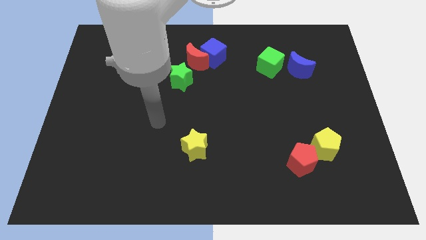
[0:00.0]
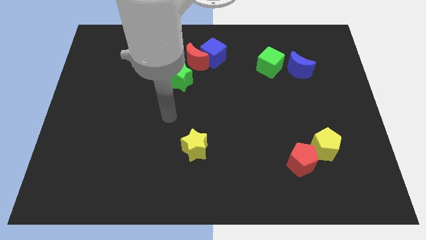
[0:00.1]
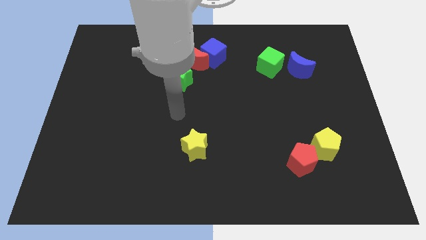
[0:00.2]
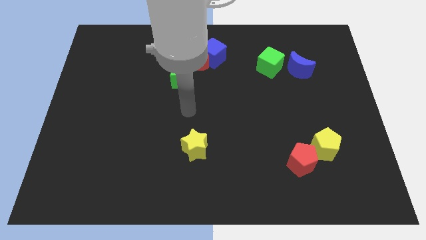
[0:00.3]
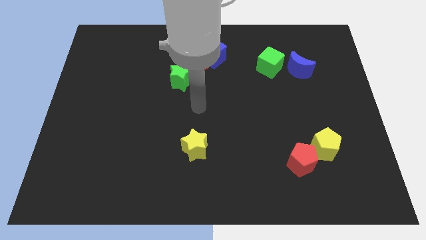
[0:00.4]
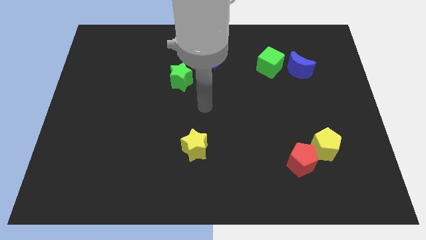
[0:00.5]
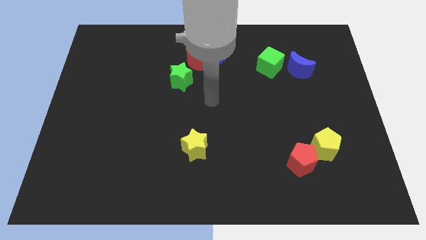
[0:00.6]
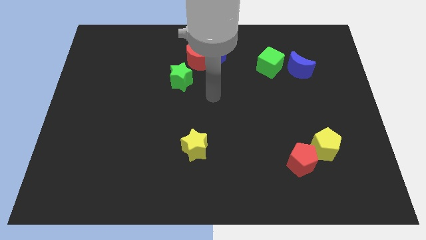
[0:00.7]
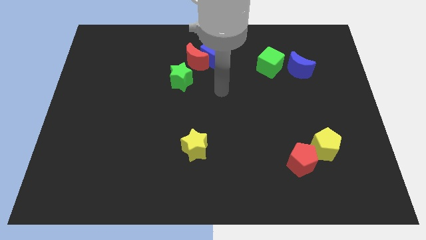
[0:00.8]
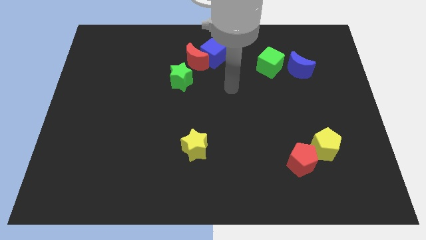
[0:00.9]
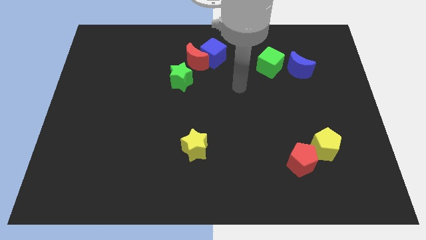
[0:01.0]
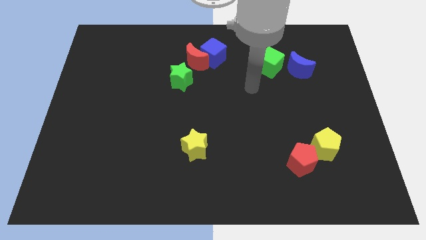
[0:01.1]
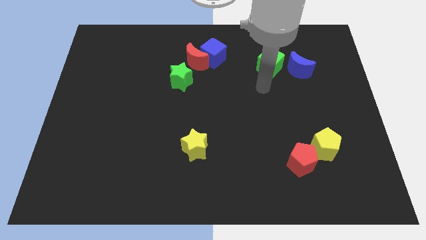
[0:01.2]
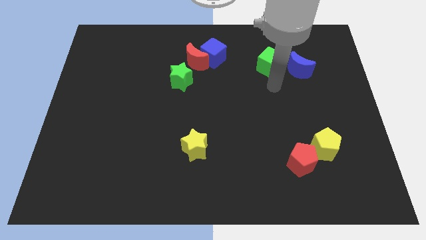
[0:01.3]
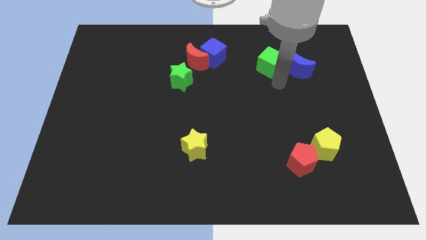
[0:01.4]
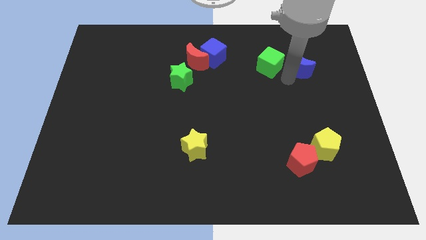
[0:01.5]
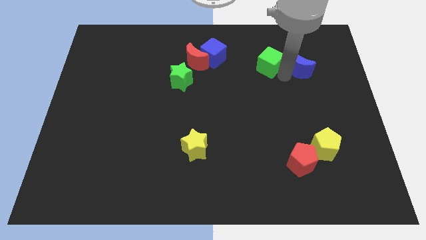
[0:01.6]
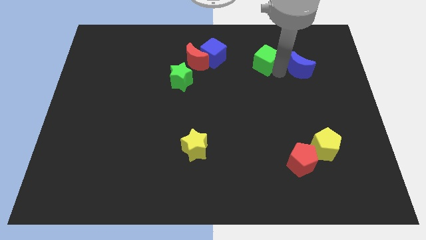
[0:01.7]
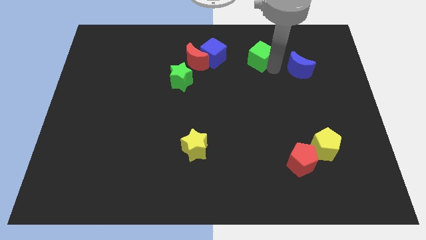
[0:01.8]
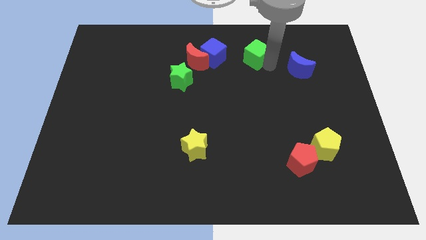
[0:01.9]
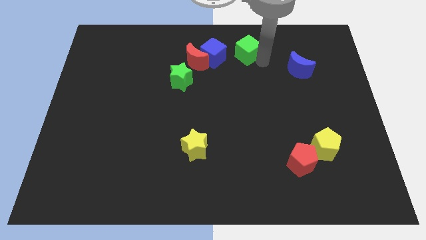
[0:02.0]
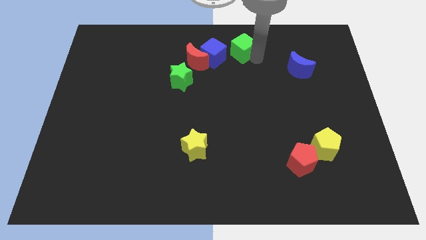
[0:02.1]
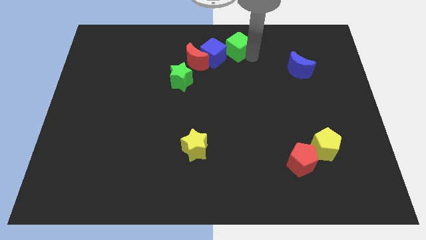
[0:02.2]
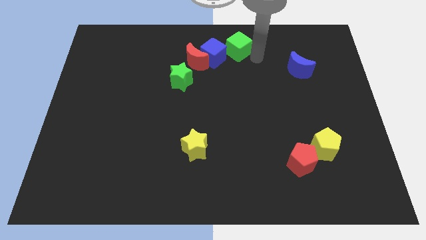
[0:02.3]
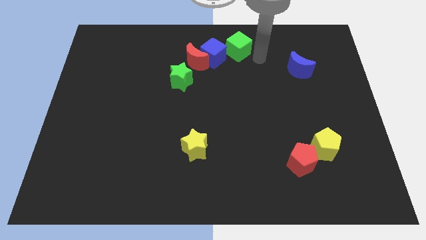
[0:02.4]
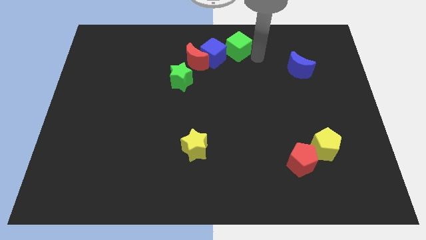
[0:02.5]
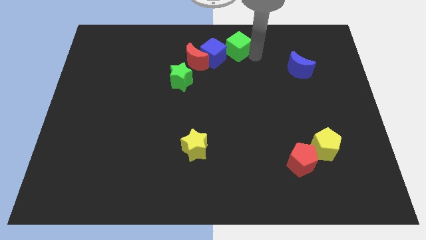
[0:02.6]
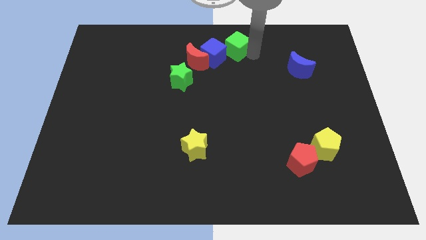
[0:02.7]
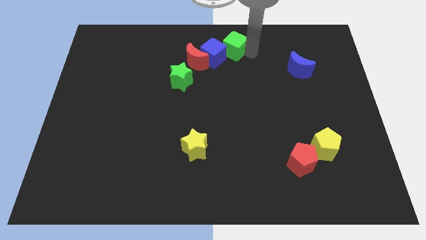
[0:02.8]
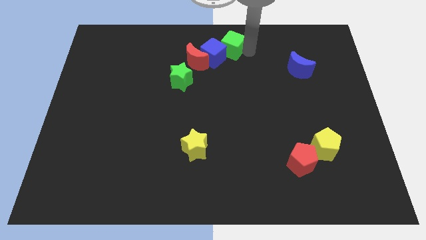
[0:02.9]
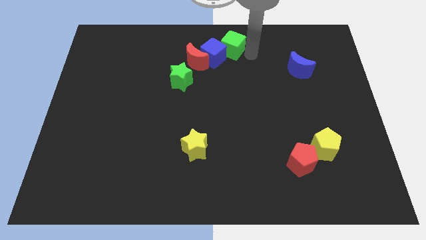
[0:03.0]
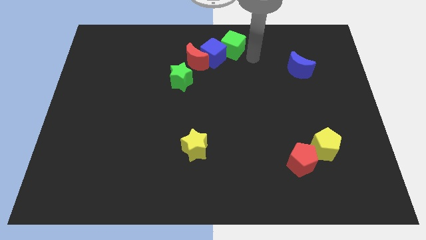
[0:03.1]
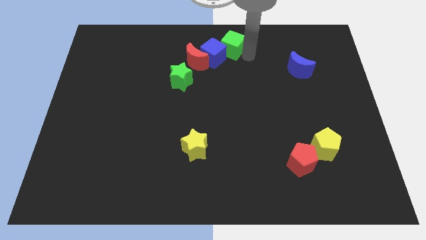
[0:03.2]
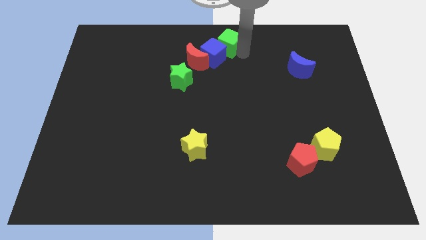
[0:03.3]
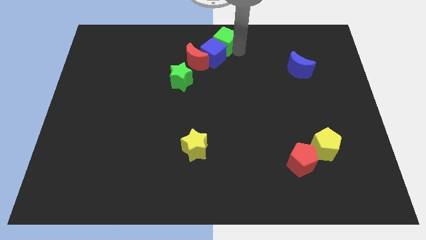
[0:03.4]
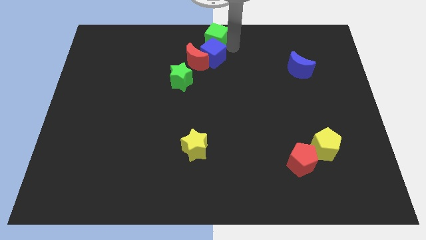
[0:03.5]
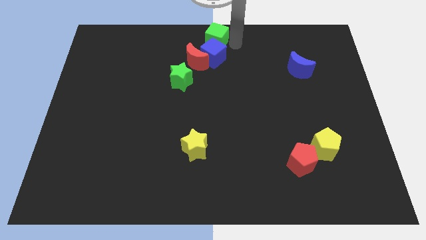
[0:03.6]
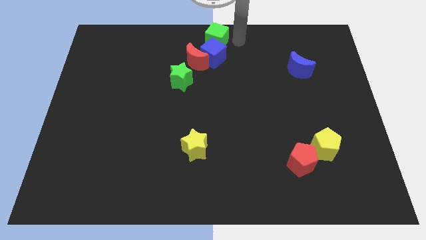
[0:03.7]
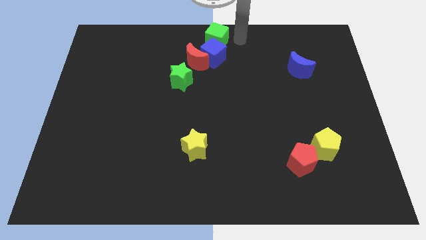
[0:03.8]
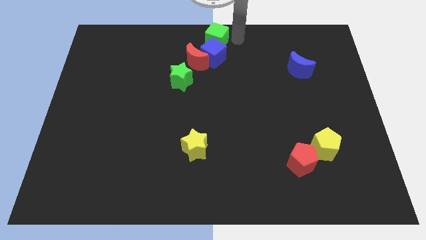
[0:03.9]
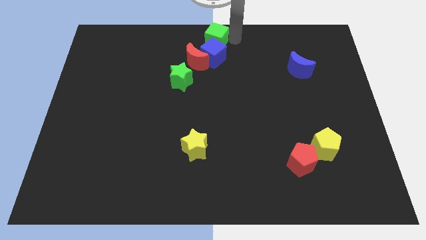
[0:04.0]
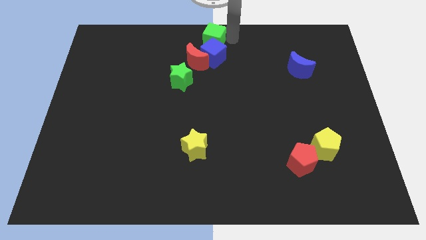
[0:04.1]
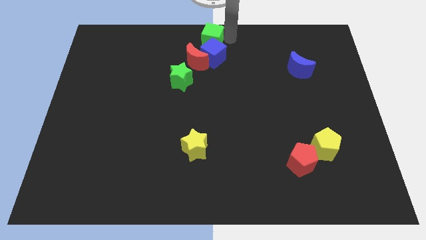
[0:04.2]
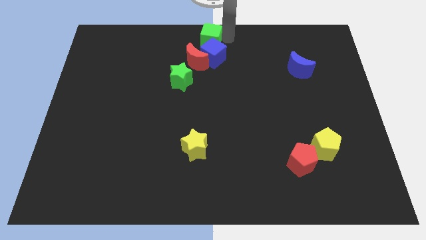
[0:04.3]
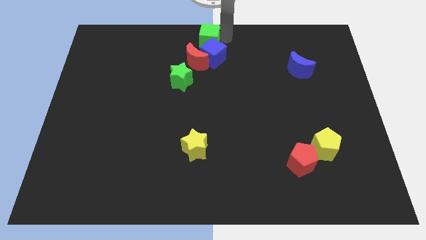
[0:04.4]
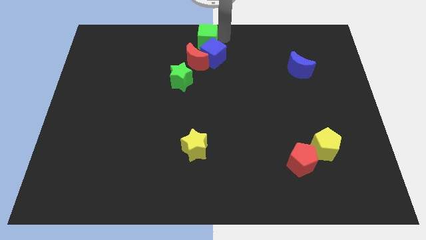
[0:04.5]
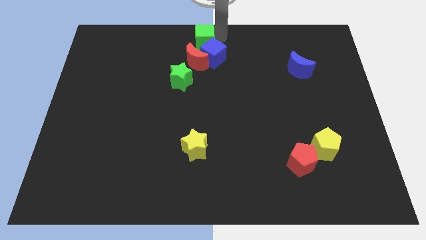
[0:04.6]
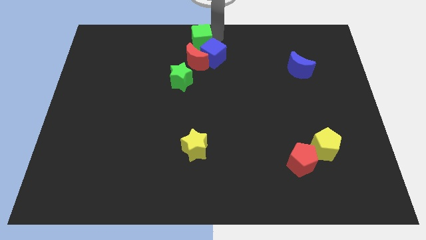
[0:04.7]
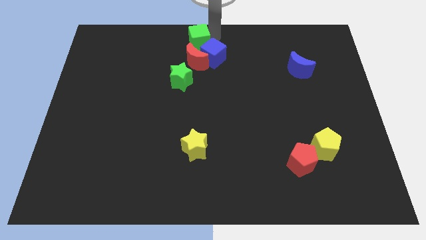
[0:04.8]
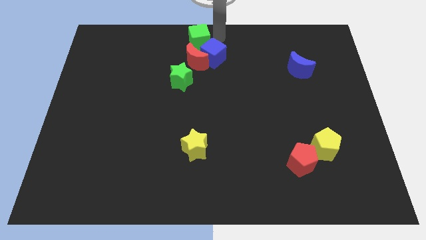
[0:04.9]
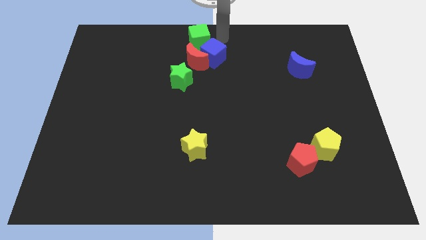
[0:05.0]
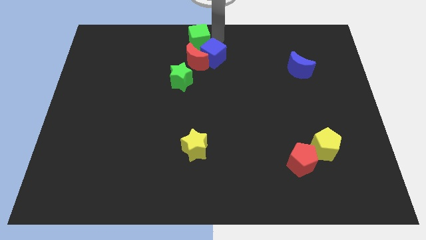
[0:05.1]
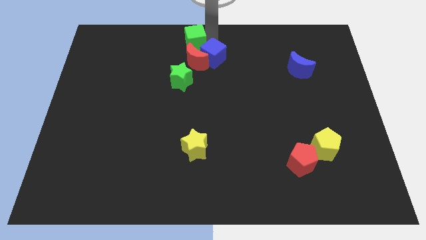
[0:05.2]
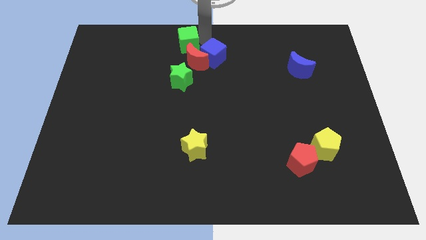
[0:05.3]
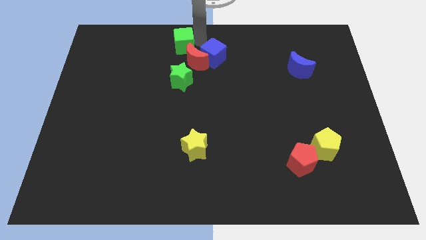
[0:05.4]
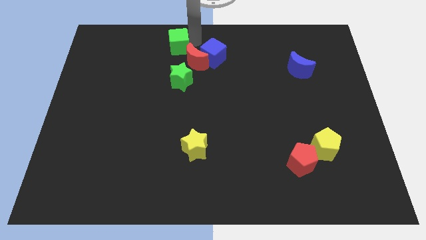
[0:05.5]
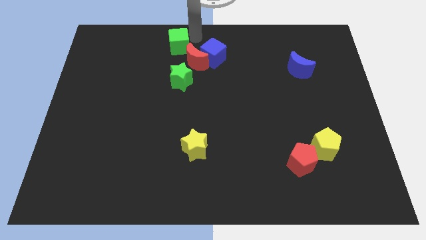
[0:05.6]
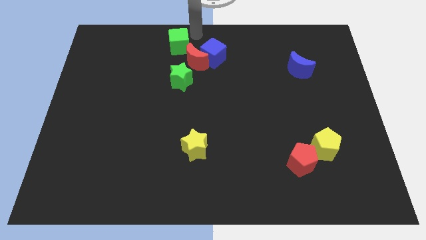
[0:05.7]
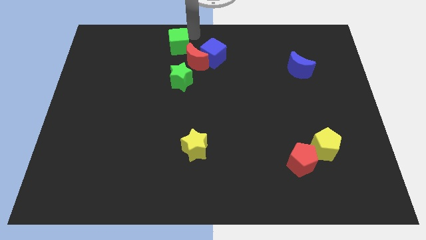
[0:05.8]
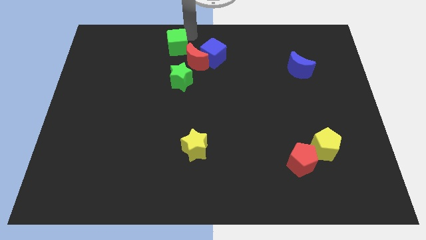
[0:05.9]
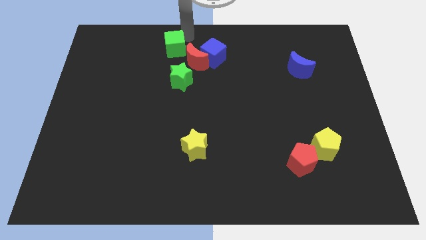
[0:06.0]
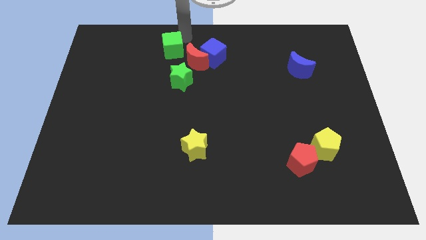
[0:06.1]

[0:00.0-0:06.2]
slide the green cube left of the red moon
